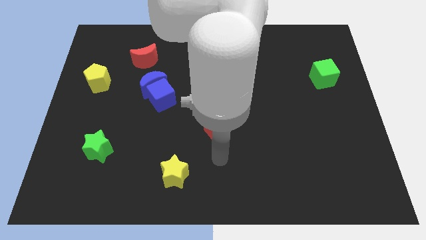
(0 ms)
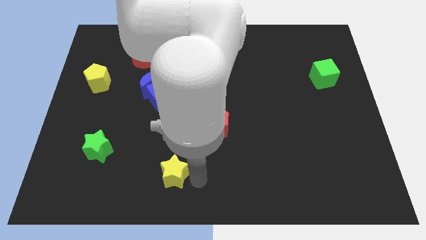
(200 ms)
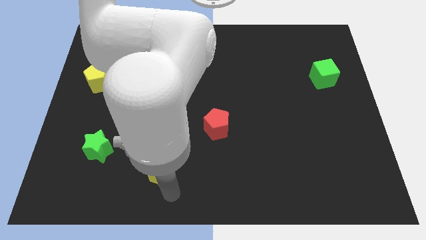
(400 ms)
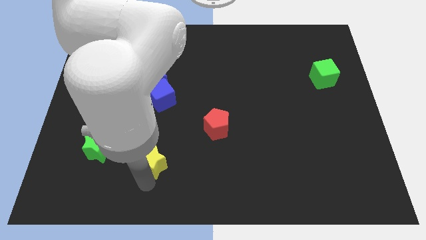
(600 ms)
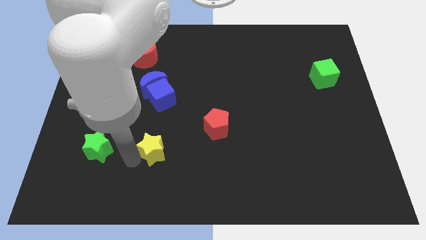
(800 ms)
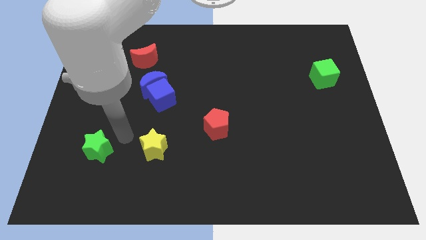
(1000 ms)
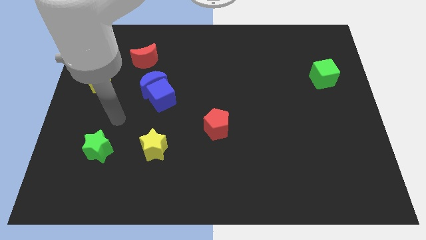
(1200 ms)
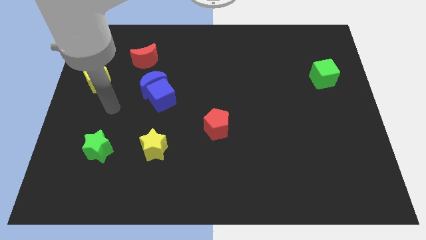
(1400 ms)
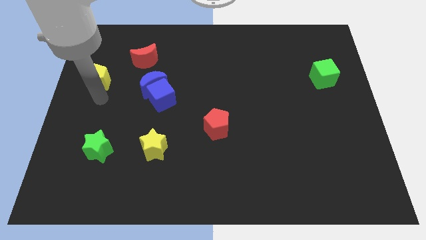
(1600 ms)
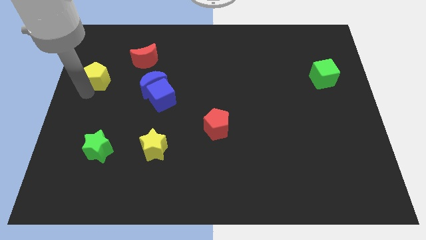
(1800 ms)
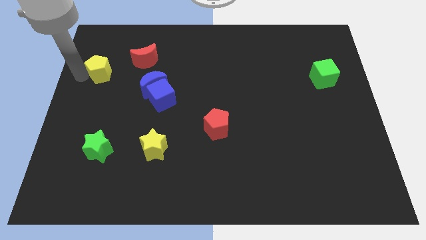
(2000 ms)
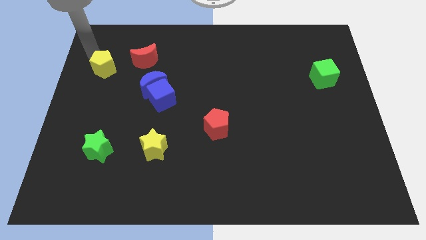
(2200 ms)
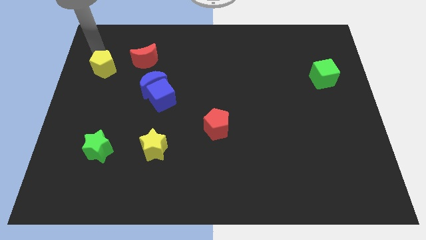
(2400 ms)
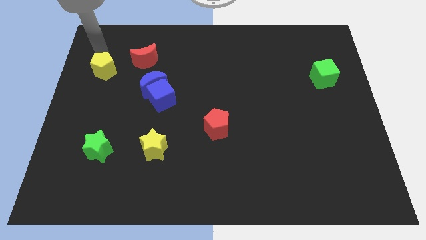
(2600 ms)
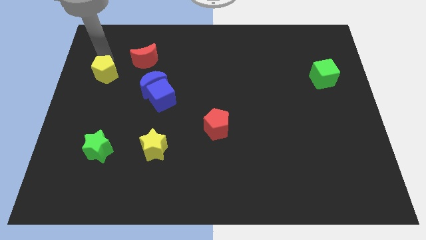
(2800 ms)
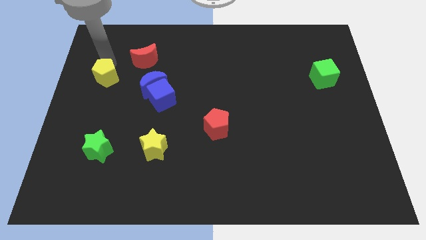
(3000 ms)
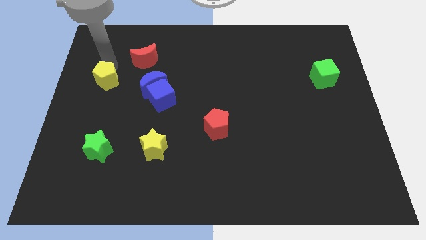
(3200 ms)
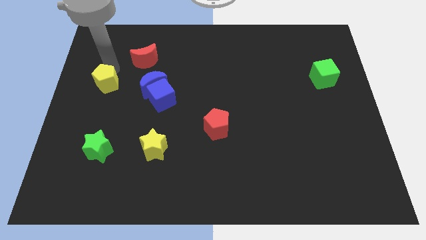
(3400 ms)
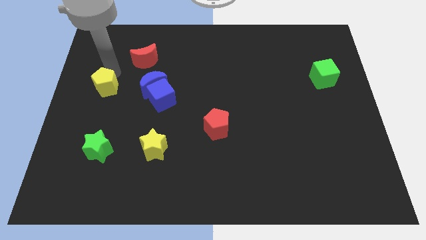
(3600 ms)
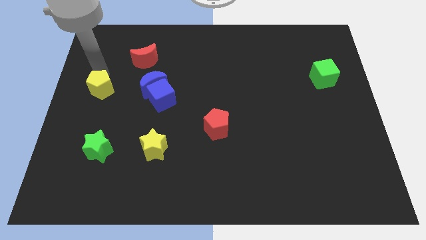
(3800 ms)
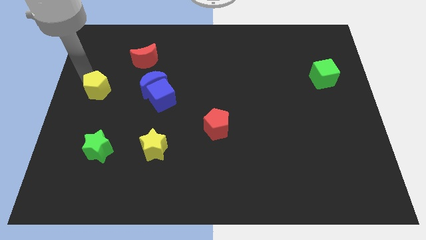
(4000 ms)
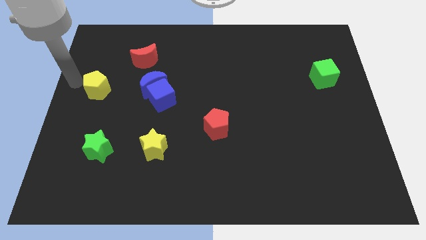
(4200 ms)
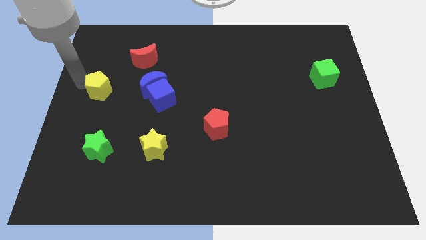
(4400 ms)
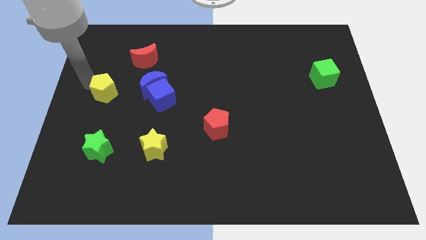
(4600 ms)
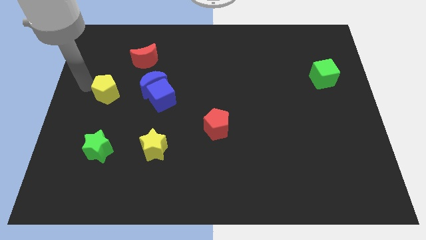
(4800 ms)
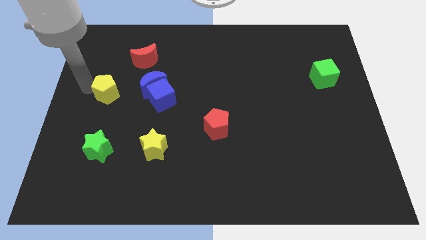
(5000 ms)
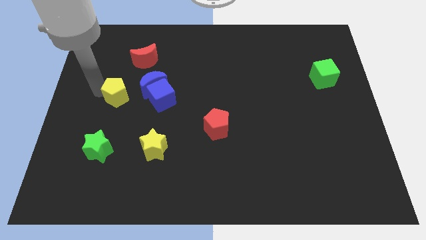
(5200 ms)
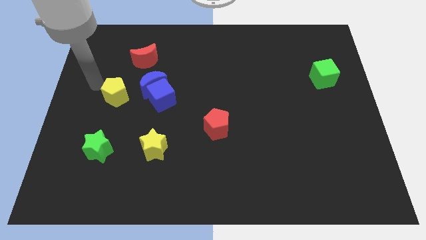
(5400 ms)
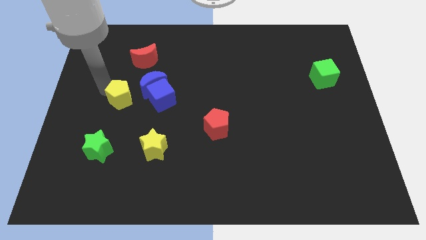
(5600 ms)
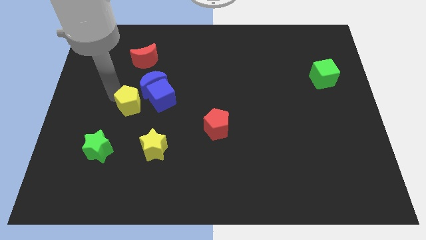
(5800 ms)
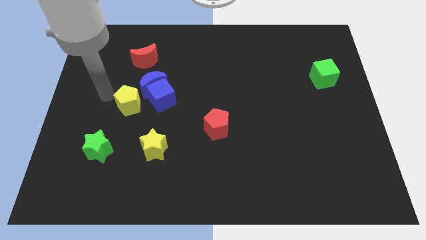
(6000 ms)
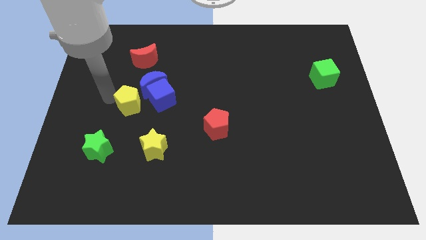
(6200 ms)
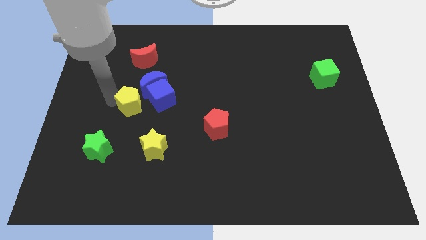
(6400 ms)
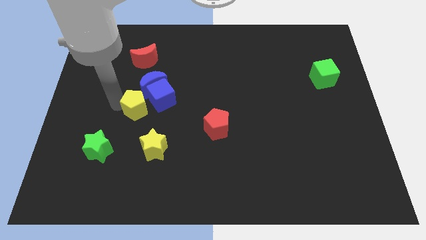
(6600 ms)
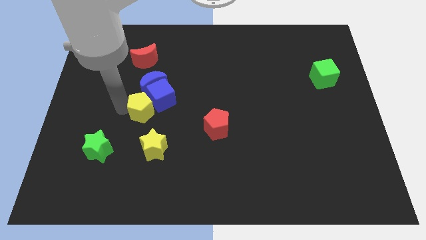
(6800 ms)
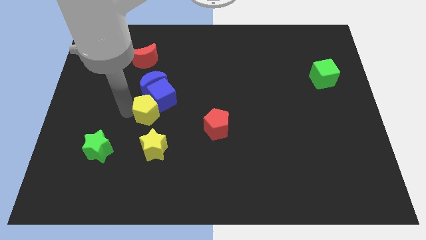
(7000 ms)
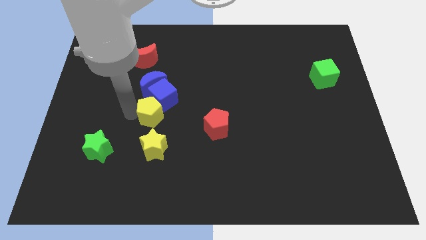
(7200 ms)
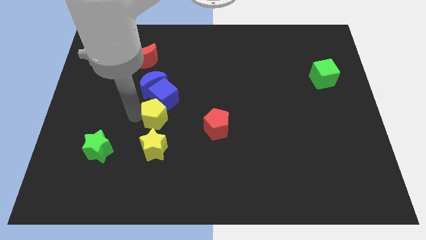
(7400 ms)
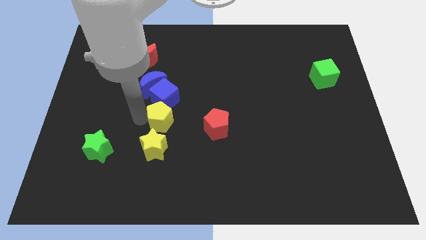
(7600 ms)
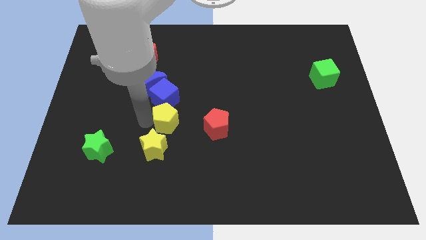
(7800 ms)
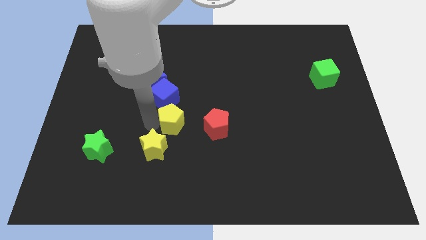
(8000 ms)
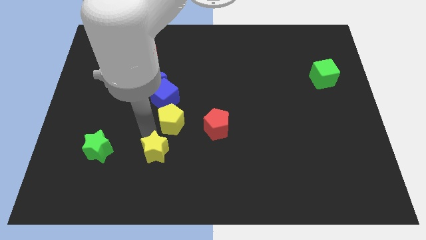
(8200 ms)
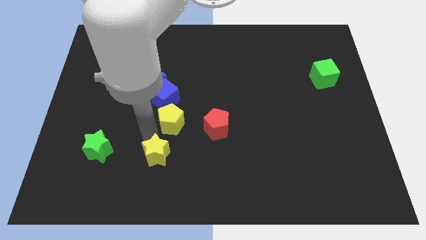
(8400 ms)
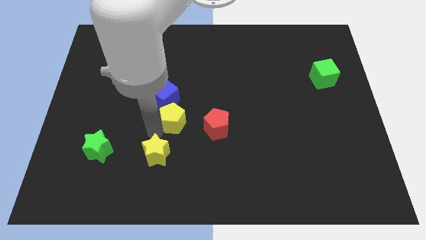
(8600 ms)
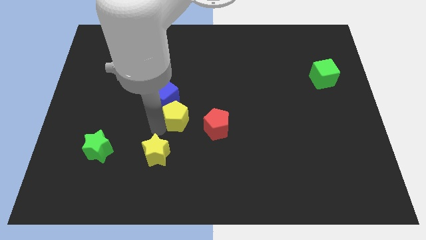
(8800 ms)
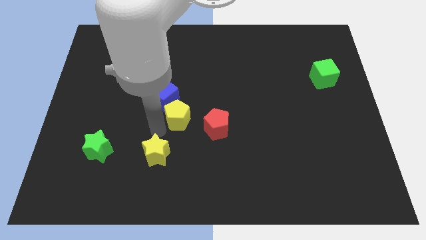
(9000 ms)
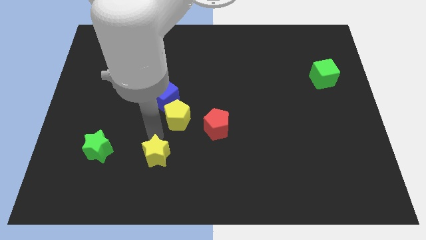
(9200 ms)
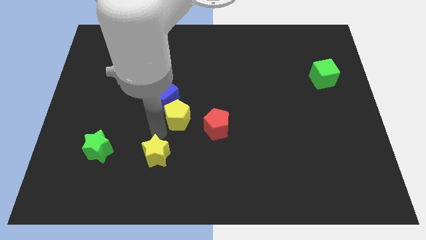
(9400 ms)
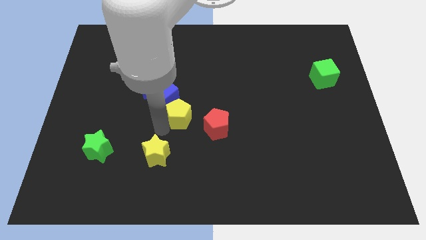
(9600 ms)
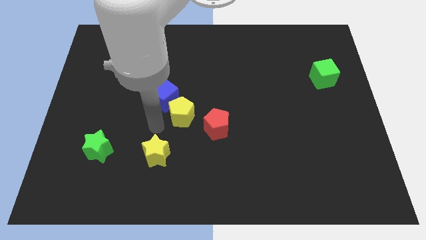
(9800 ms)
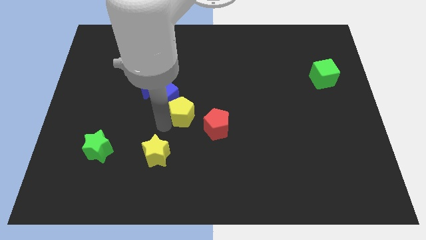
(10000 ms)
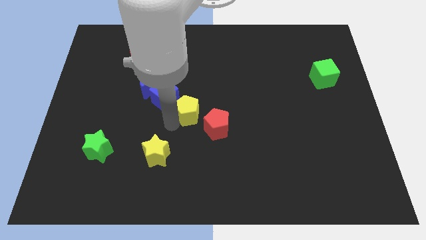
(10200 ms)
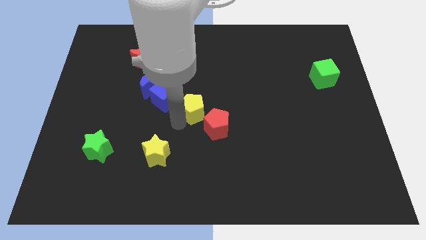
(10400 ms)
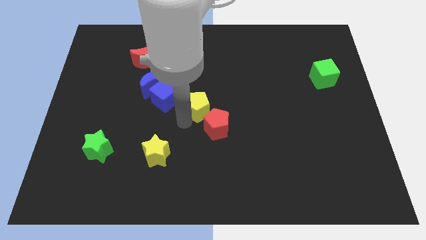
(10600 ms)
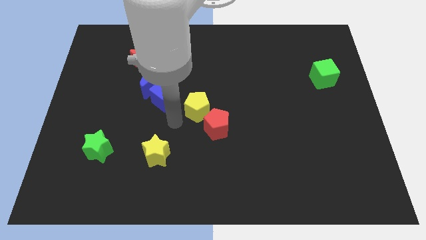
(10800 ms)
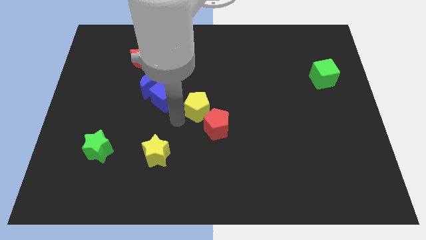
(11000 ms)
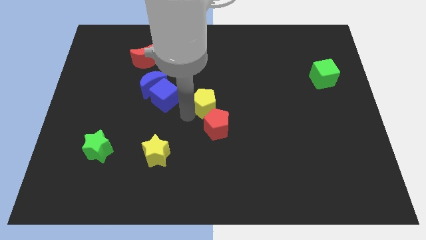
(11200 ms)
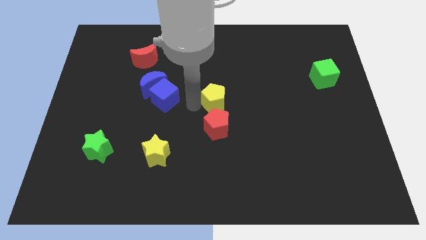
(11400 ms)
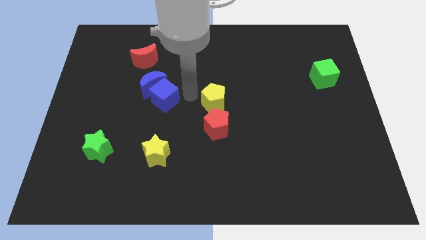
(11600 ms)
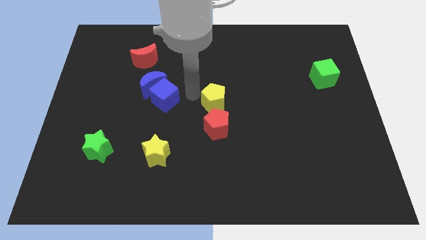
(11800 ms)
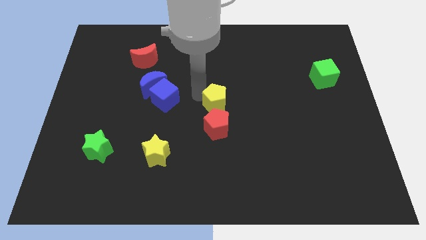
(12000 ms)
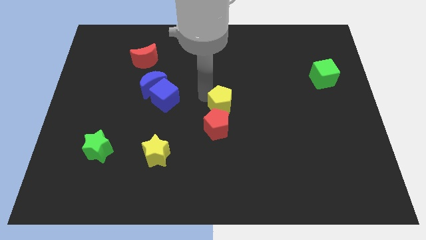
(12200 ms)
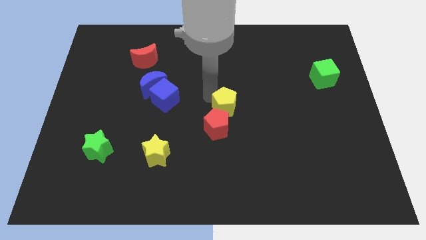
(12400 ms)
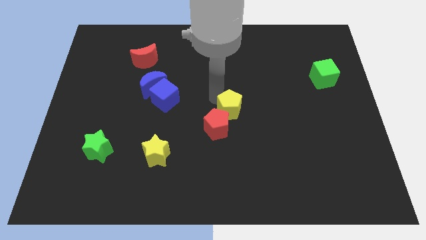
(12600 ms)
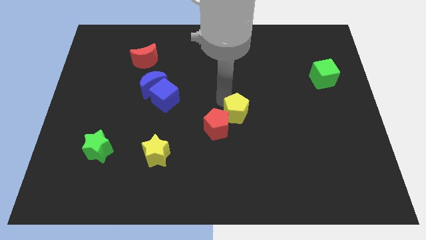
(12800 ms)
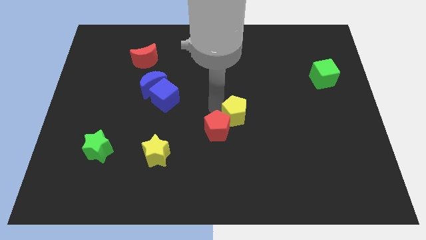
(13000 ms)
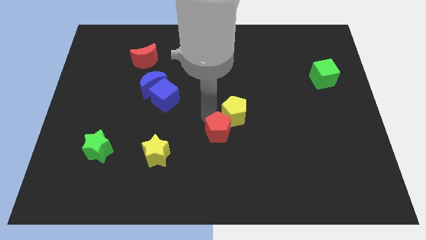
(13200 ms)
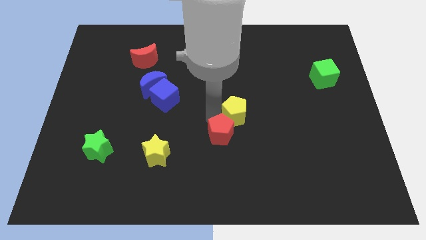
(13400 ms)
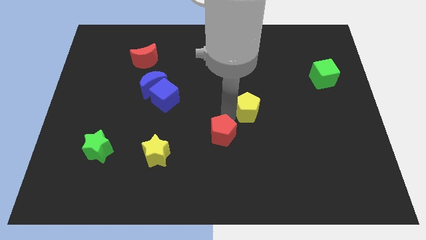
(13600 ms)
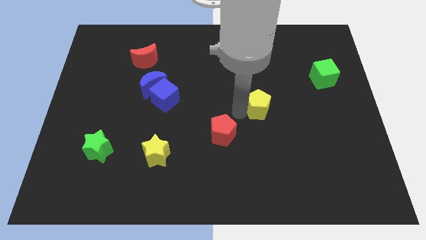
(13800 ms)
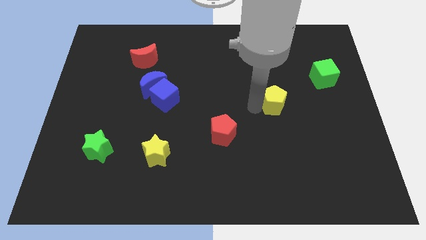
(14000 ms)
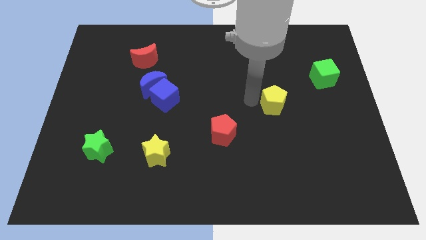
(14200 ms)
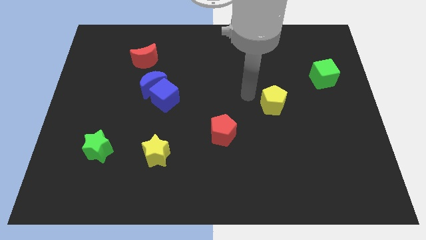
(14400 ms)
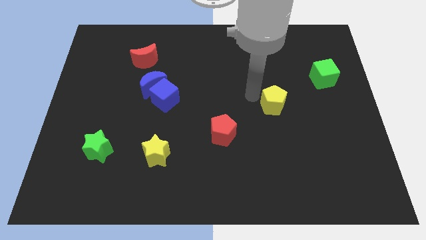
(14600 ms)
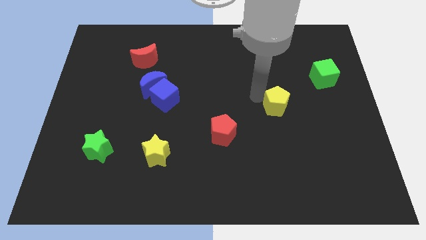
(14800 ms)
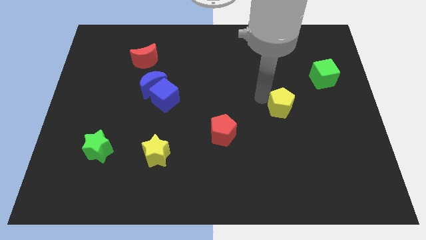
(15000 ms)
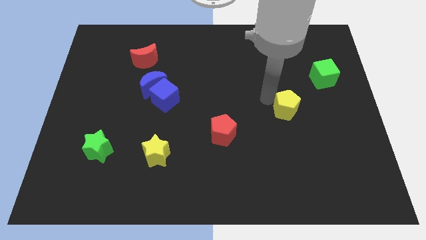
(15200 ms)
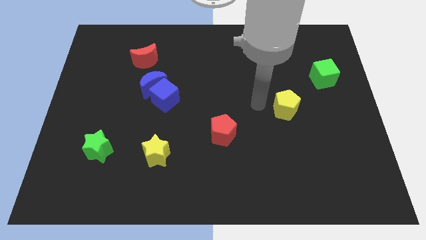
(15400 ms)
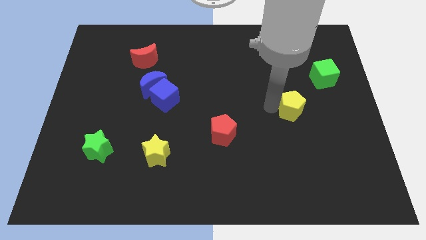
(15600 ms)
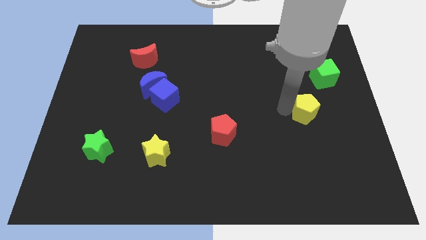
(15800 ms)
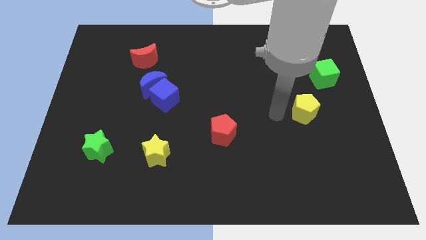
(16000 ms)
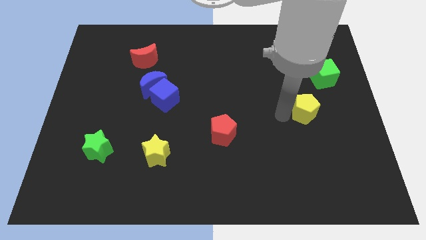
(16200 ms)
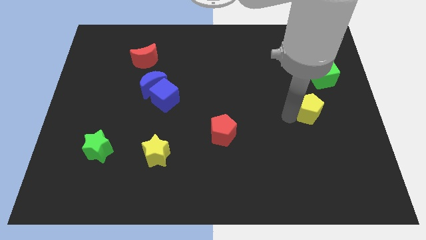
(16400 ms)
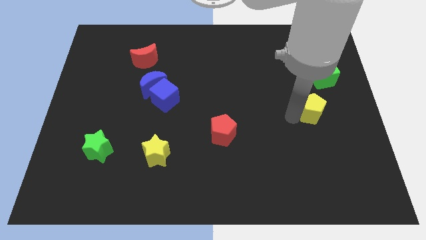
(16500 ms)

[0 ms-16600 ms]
slide the yellow pentagon to the bottom side of the green cube
